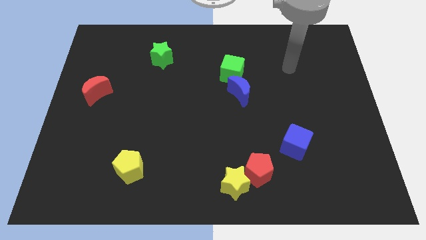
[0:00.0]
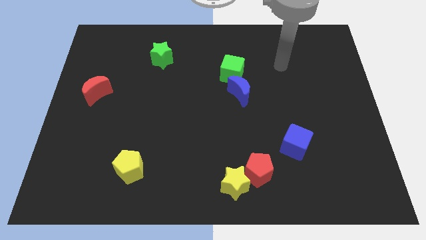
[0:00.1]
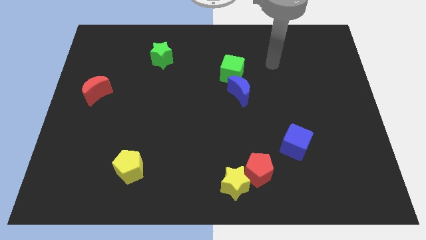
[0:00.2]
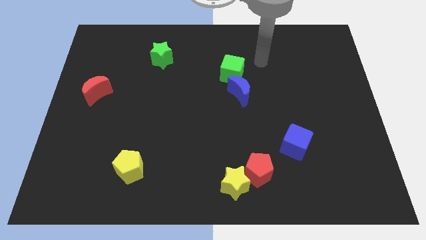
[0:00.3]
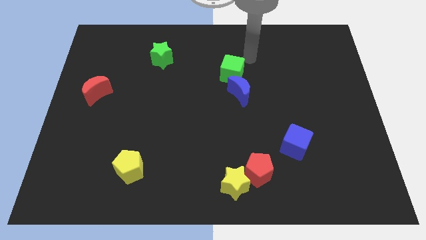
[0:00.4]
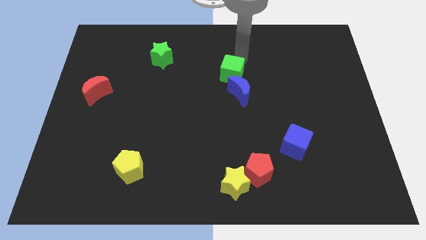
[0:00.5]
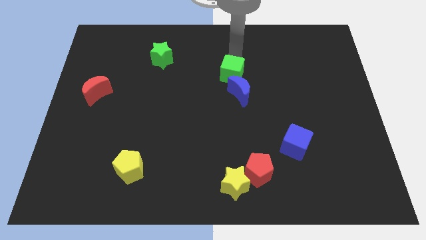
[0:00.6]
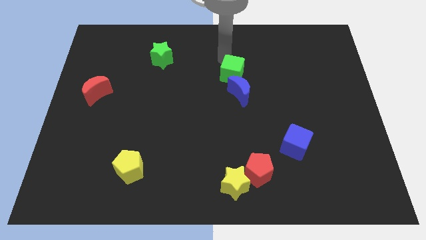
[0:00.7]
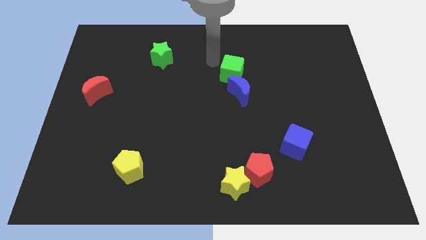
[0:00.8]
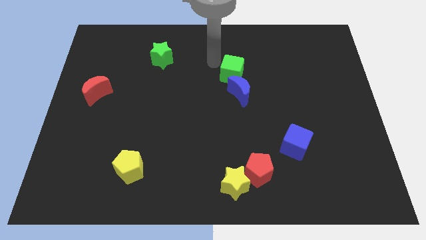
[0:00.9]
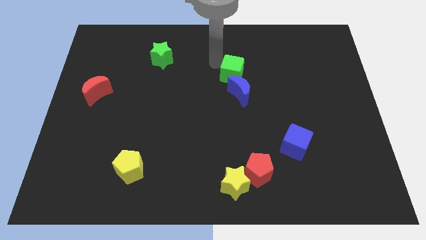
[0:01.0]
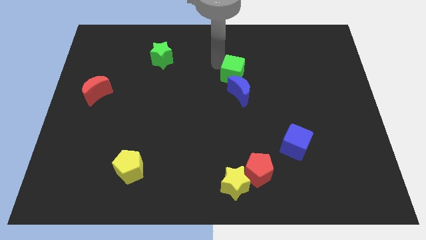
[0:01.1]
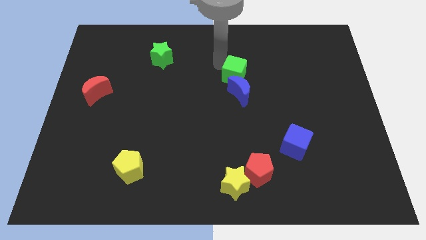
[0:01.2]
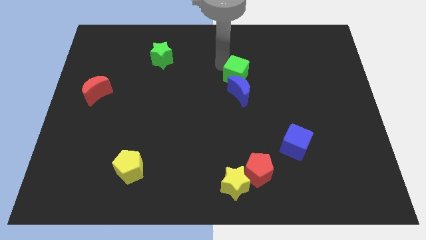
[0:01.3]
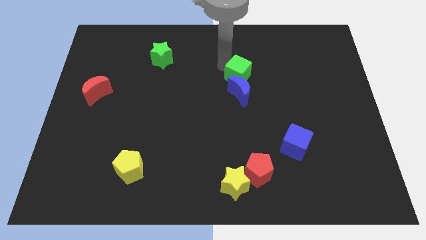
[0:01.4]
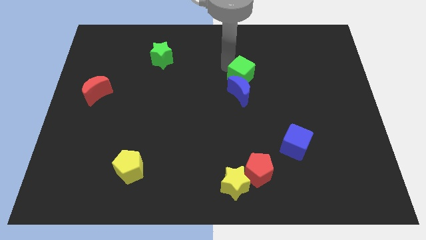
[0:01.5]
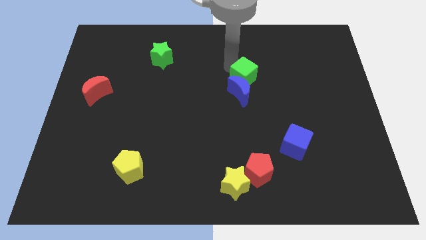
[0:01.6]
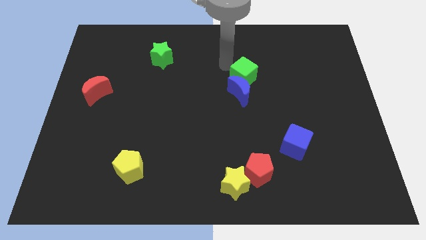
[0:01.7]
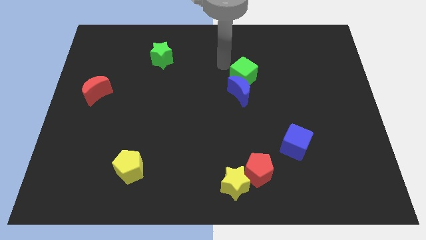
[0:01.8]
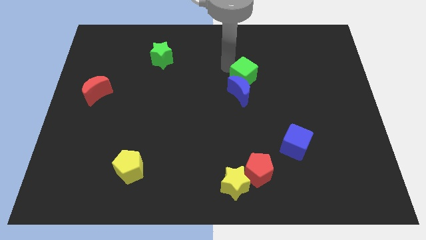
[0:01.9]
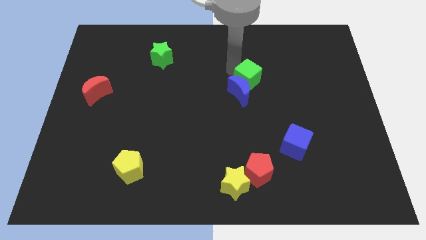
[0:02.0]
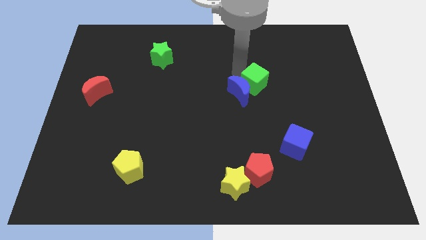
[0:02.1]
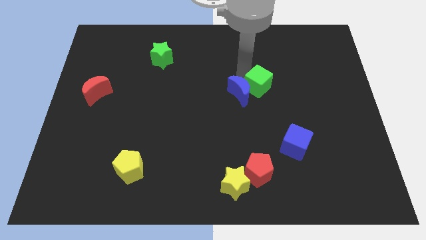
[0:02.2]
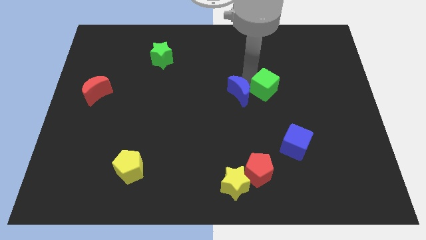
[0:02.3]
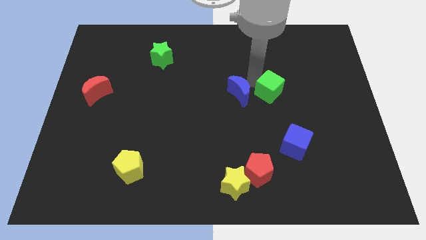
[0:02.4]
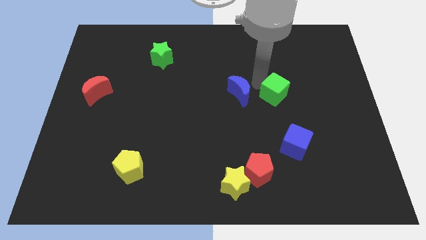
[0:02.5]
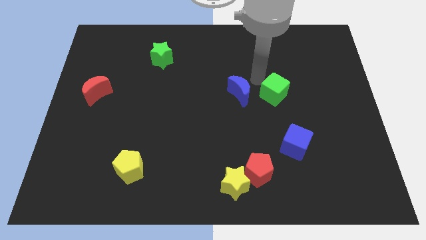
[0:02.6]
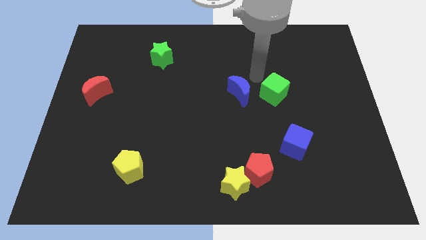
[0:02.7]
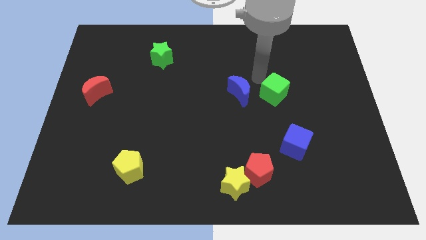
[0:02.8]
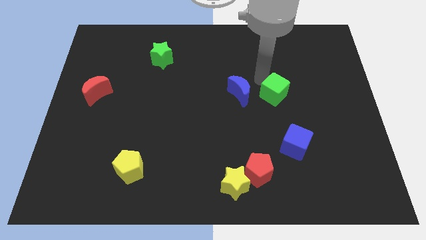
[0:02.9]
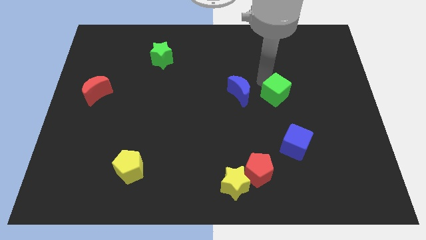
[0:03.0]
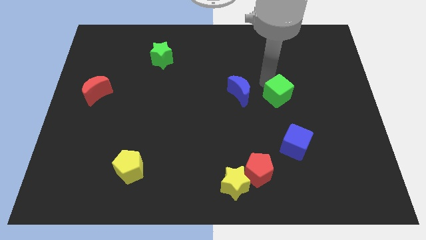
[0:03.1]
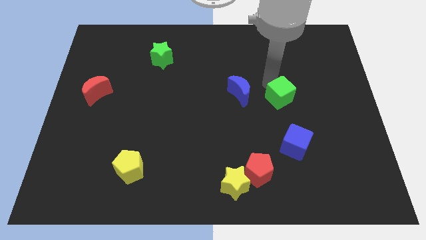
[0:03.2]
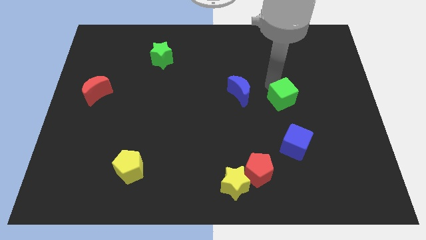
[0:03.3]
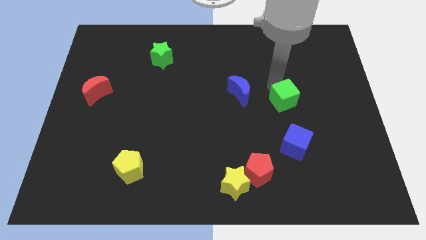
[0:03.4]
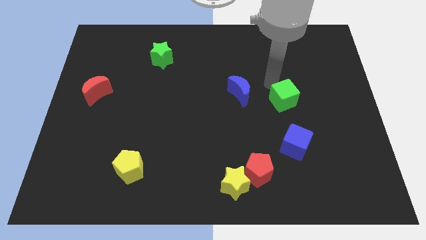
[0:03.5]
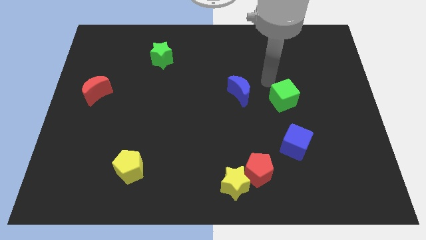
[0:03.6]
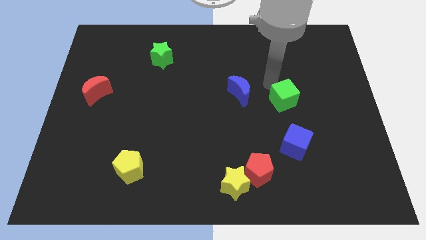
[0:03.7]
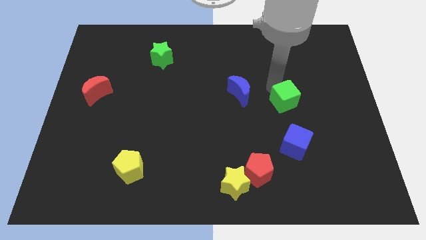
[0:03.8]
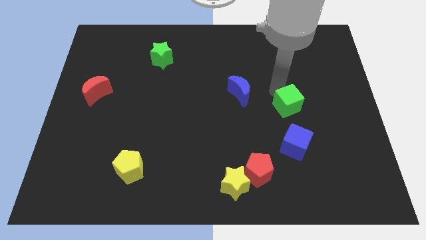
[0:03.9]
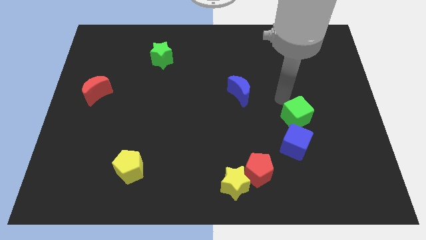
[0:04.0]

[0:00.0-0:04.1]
slide the green cube diagonally downwards and right

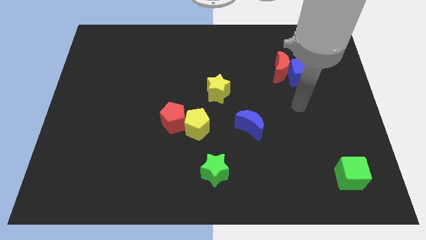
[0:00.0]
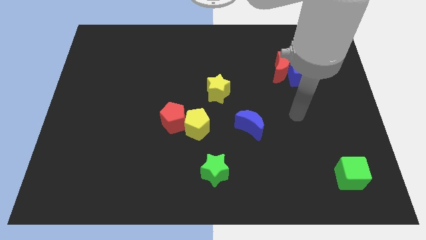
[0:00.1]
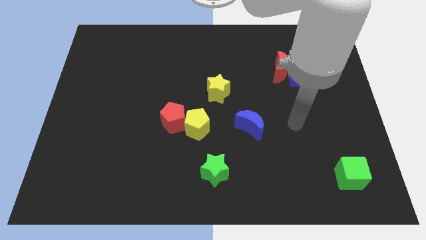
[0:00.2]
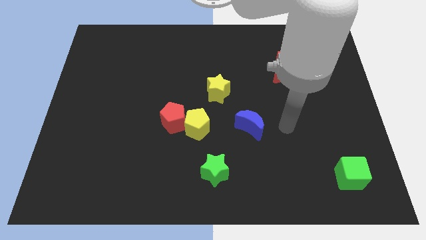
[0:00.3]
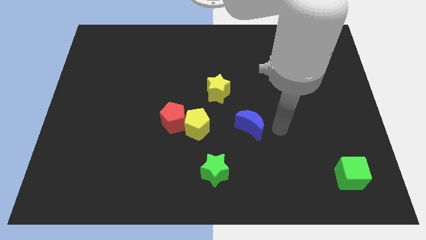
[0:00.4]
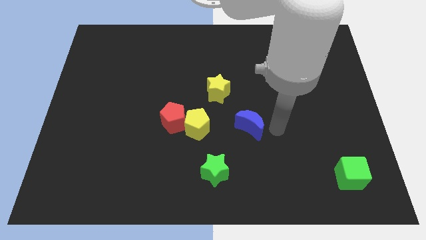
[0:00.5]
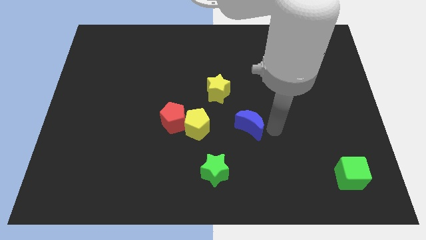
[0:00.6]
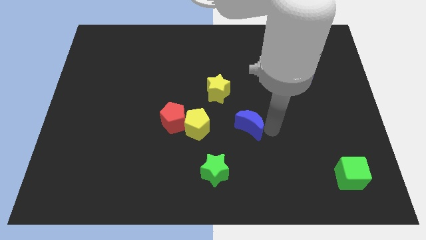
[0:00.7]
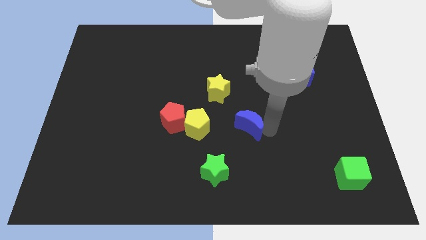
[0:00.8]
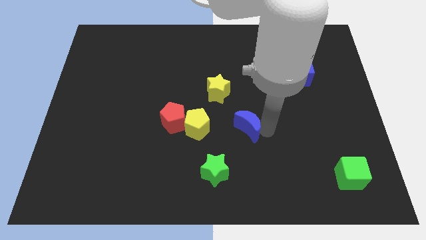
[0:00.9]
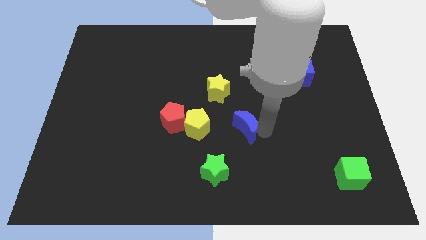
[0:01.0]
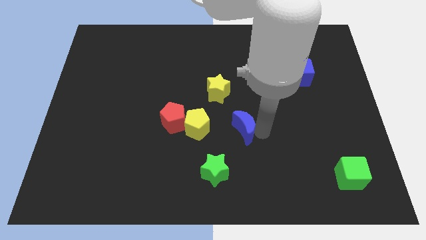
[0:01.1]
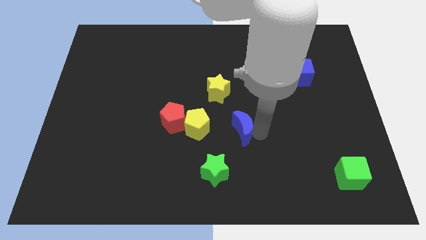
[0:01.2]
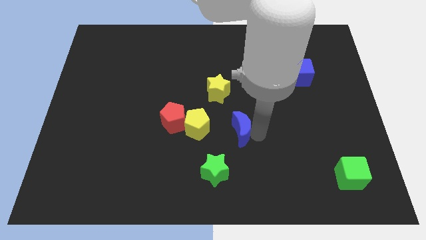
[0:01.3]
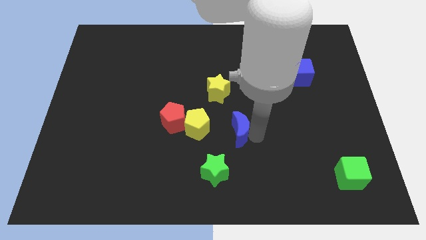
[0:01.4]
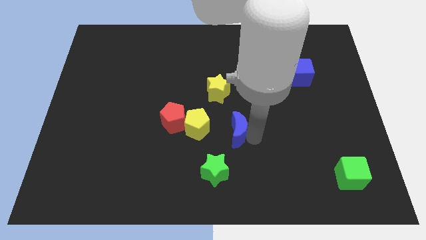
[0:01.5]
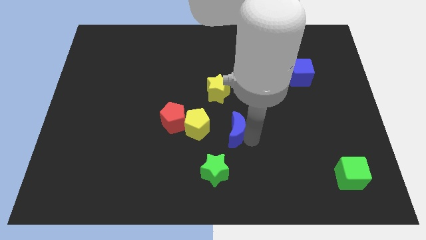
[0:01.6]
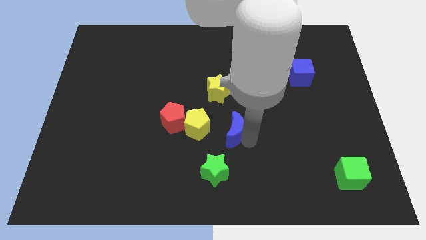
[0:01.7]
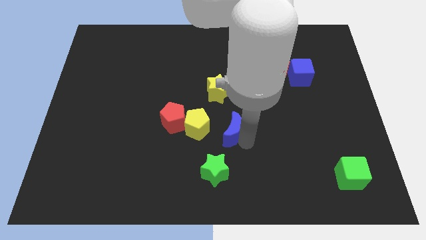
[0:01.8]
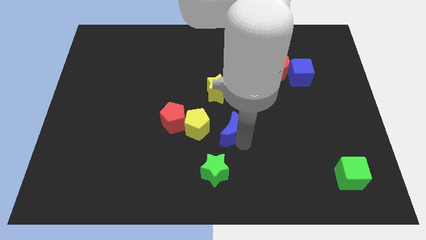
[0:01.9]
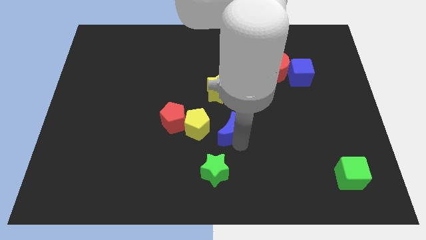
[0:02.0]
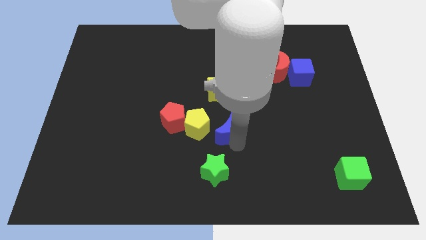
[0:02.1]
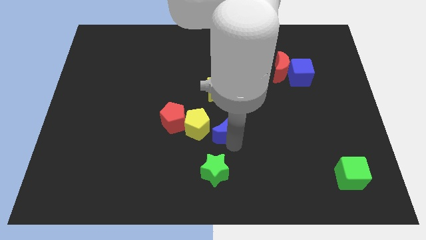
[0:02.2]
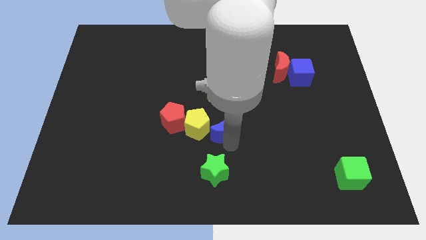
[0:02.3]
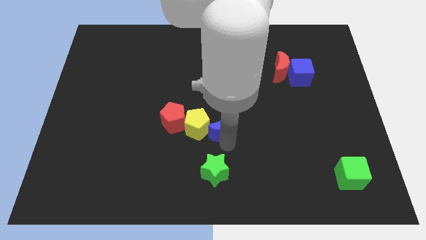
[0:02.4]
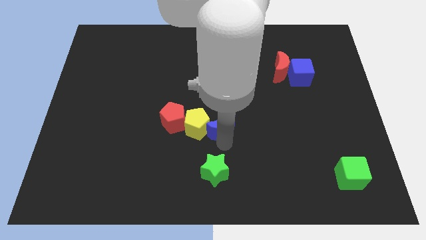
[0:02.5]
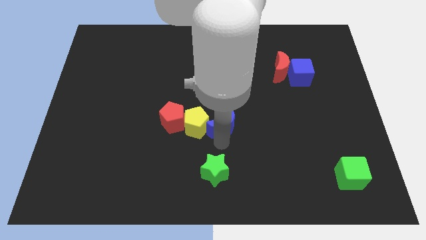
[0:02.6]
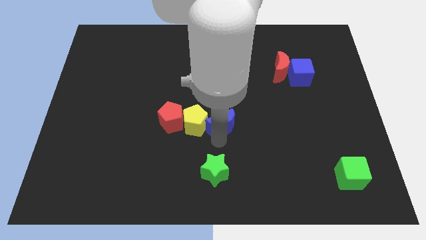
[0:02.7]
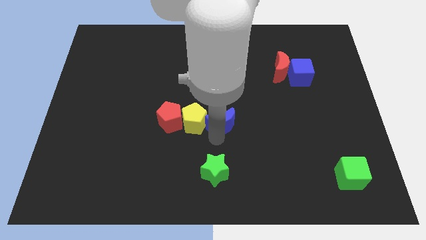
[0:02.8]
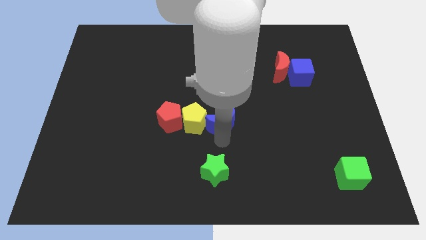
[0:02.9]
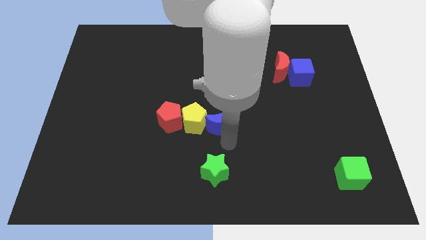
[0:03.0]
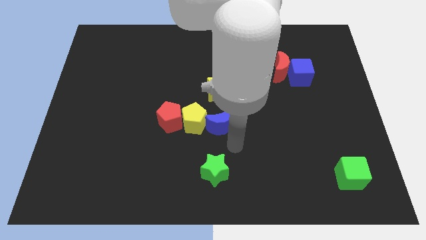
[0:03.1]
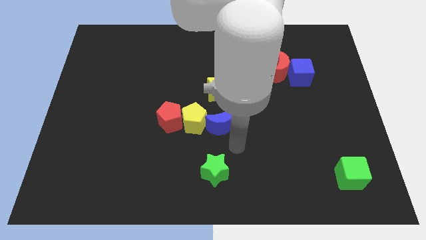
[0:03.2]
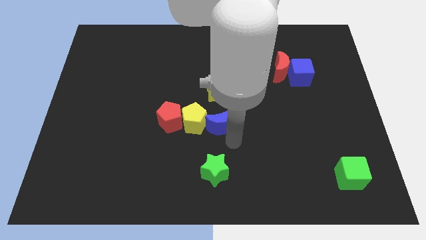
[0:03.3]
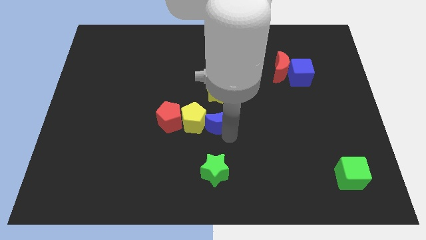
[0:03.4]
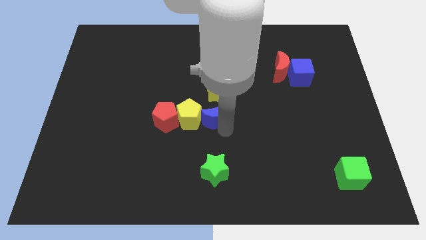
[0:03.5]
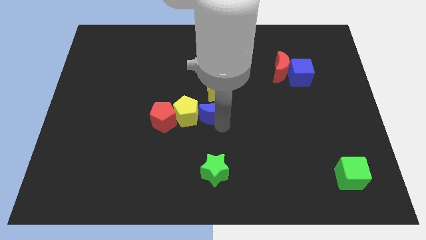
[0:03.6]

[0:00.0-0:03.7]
slightly slide the blue moon upwards and then left
